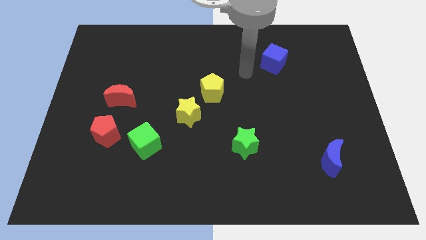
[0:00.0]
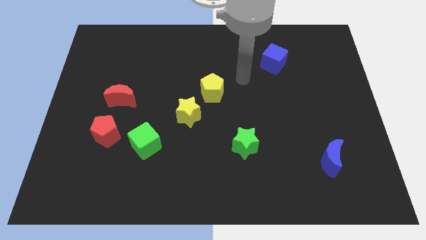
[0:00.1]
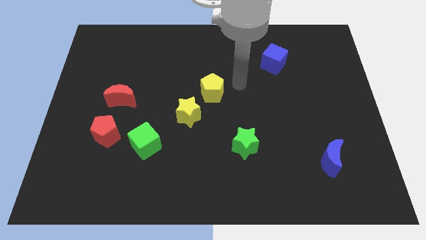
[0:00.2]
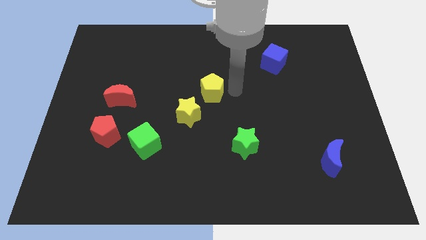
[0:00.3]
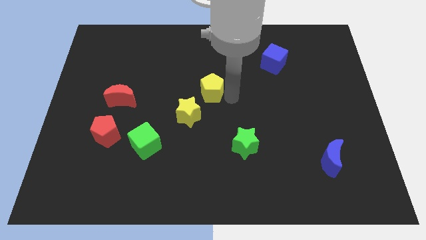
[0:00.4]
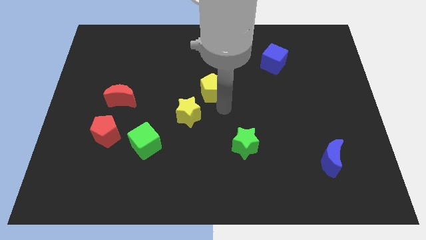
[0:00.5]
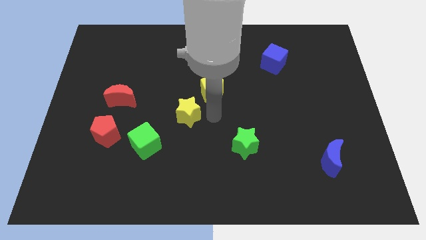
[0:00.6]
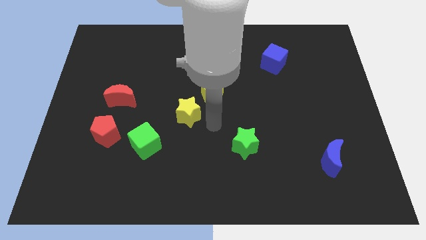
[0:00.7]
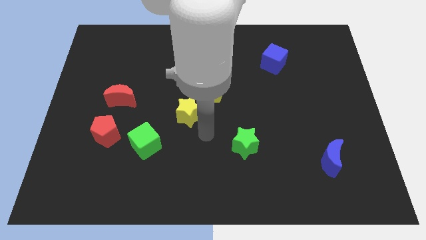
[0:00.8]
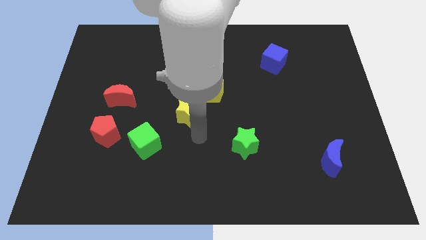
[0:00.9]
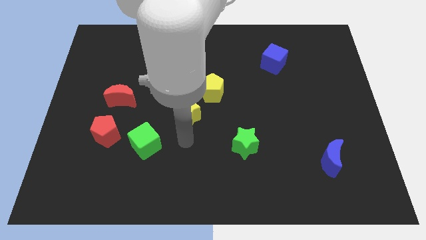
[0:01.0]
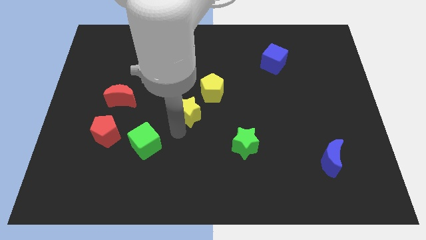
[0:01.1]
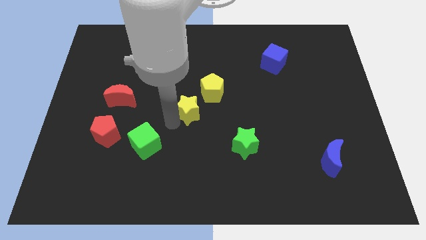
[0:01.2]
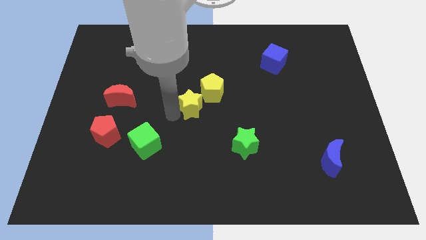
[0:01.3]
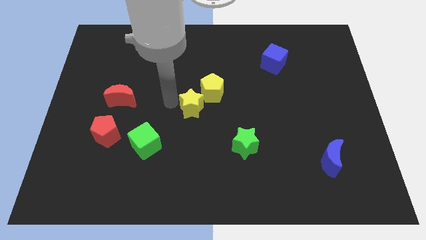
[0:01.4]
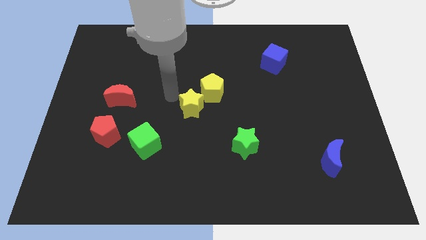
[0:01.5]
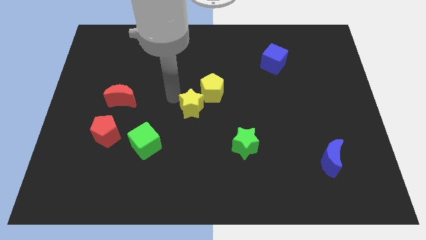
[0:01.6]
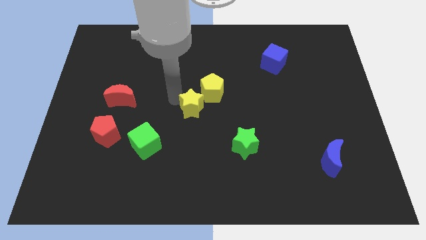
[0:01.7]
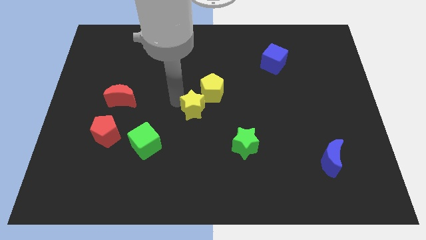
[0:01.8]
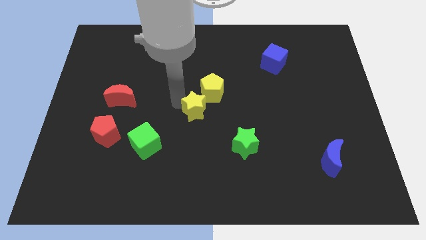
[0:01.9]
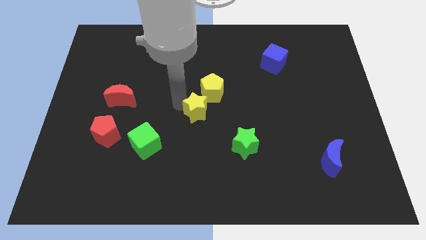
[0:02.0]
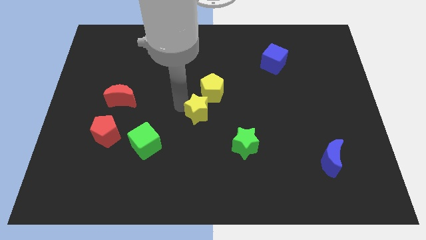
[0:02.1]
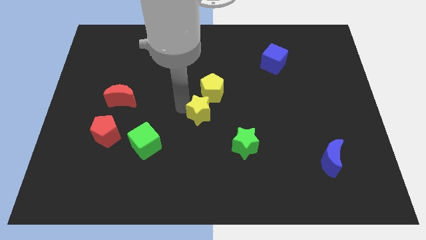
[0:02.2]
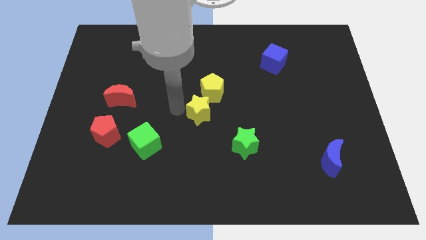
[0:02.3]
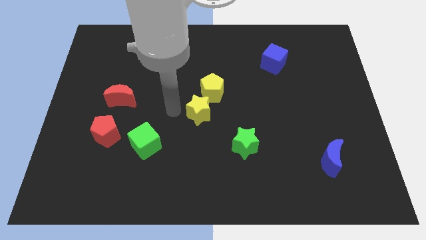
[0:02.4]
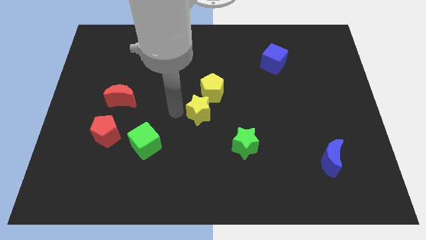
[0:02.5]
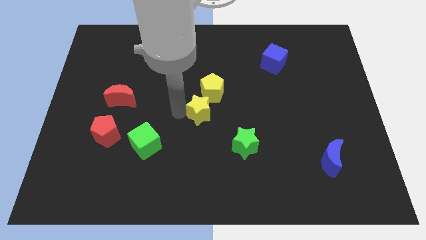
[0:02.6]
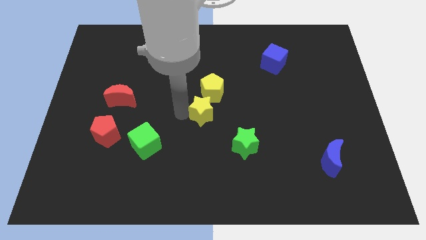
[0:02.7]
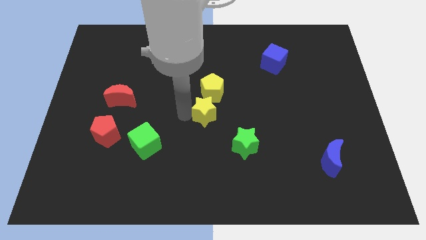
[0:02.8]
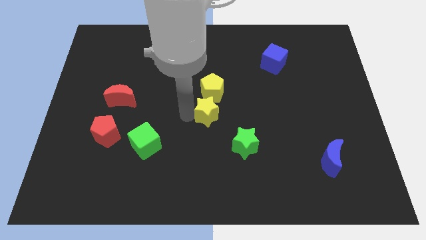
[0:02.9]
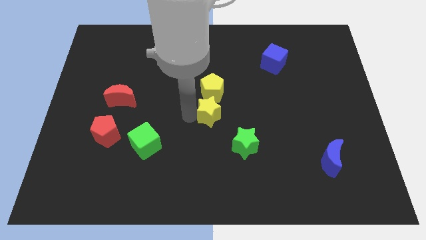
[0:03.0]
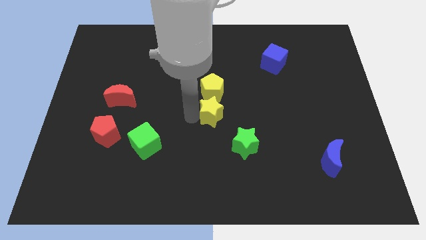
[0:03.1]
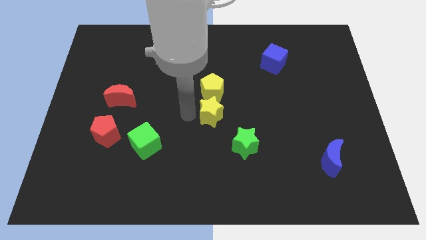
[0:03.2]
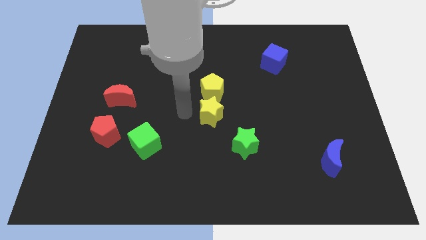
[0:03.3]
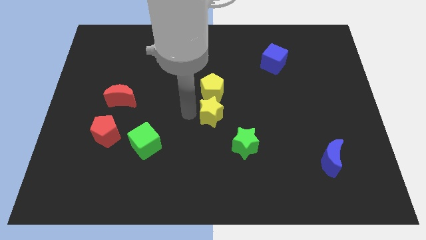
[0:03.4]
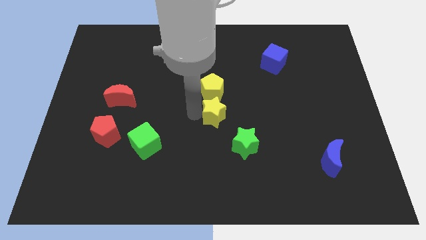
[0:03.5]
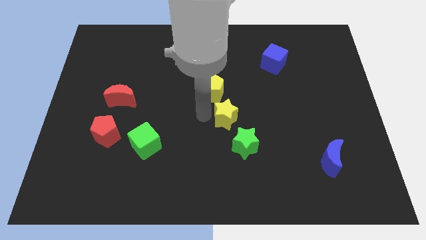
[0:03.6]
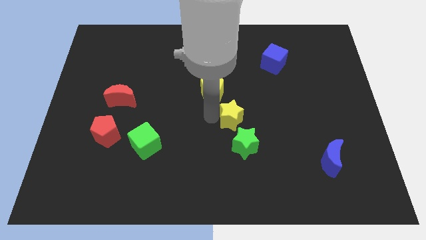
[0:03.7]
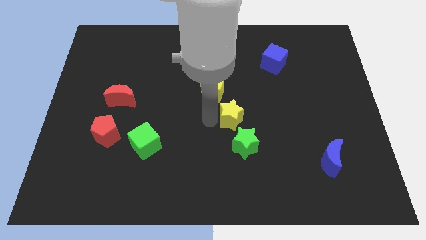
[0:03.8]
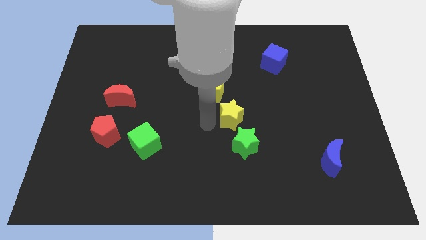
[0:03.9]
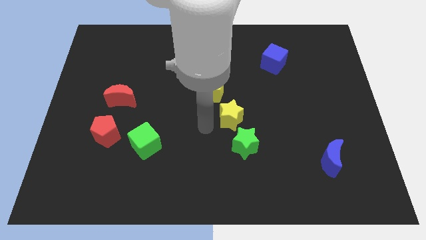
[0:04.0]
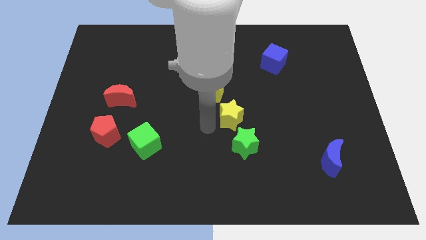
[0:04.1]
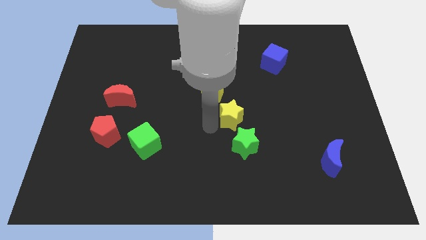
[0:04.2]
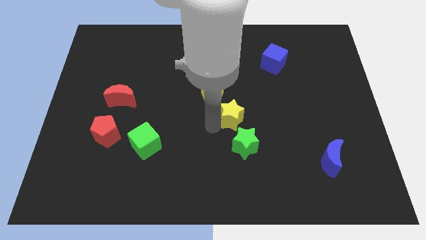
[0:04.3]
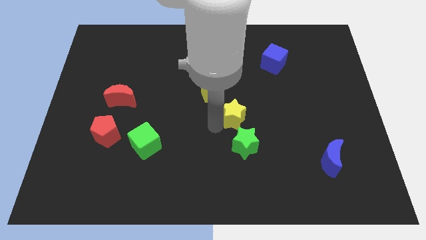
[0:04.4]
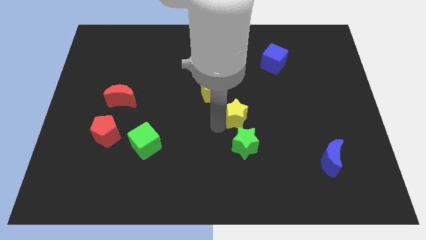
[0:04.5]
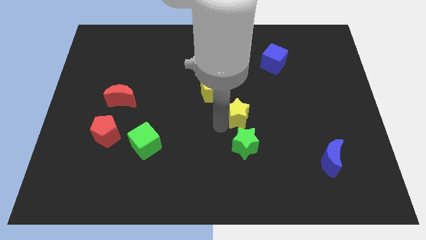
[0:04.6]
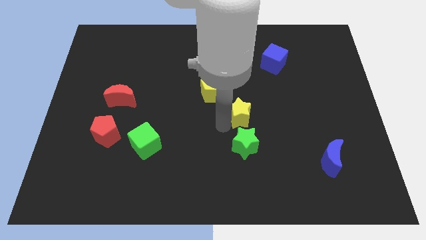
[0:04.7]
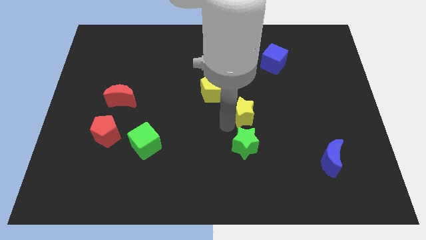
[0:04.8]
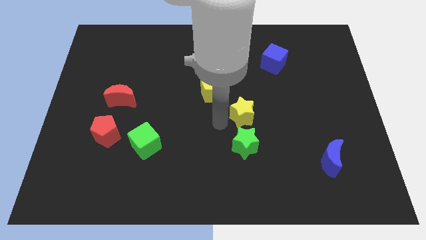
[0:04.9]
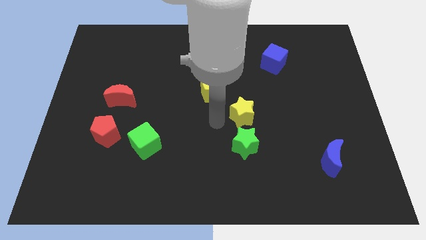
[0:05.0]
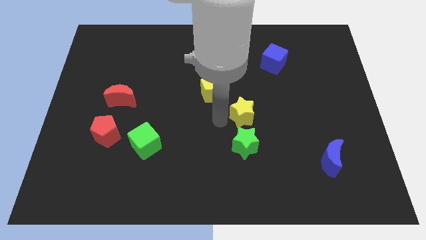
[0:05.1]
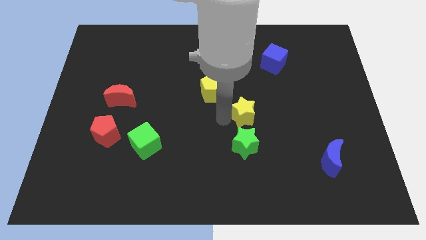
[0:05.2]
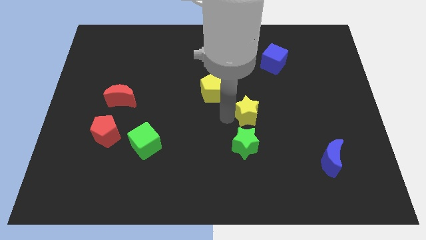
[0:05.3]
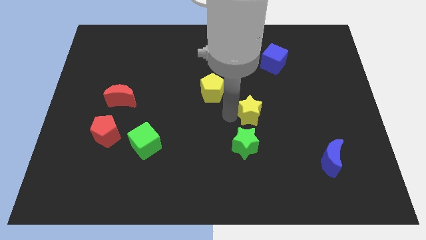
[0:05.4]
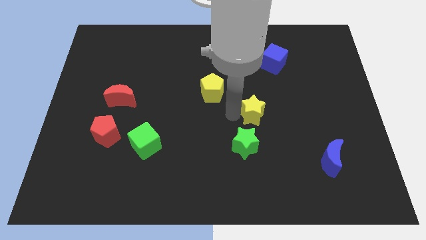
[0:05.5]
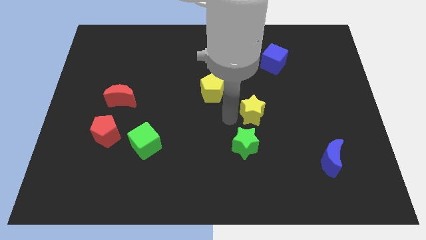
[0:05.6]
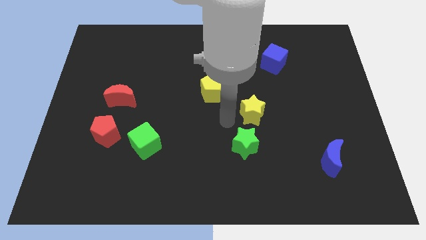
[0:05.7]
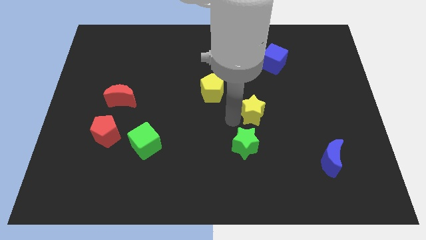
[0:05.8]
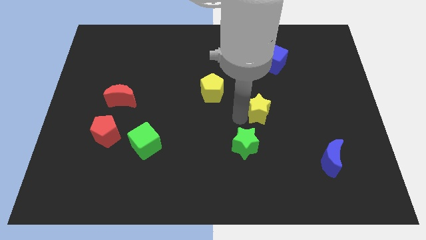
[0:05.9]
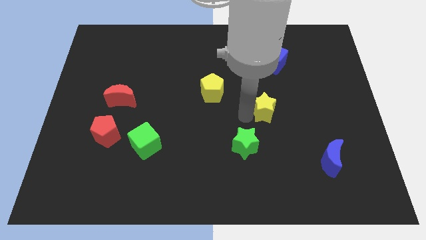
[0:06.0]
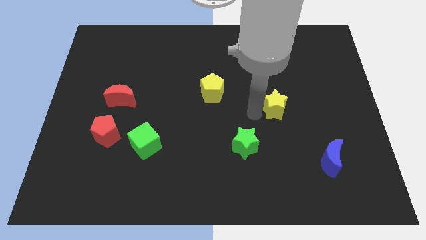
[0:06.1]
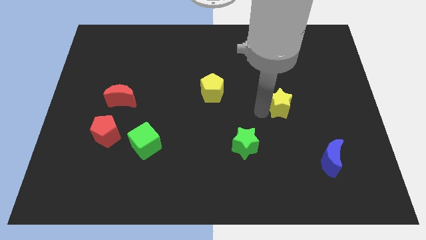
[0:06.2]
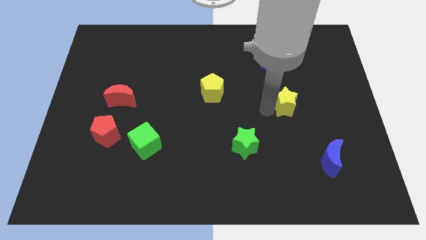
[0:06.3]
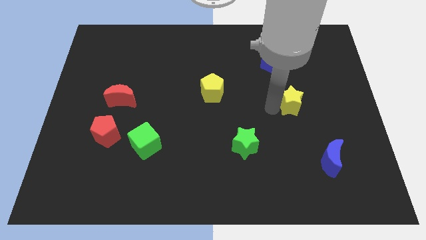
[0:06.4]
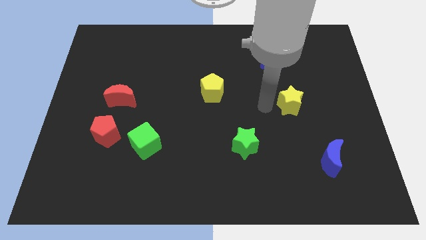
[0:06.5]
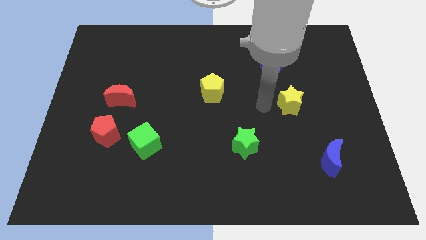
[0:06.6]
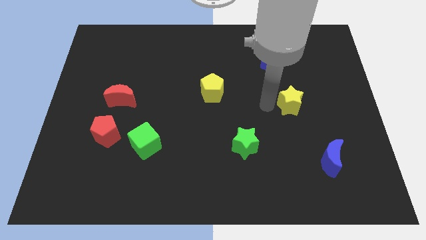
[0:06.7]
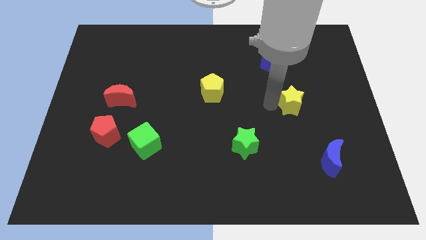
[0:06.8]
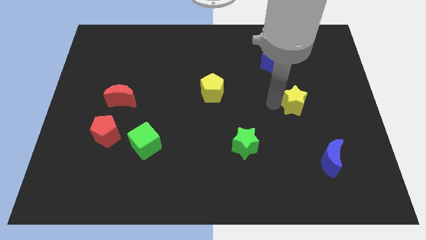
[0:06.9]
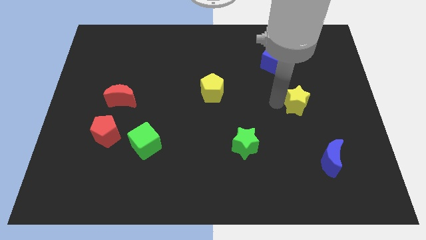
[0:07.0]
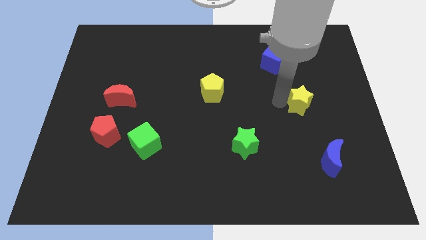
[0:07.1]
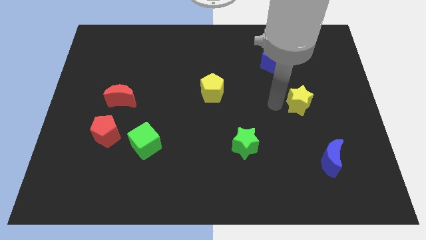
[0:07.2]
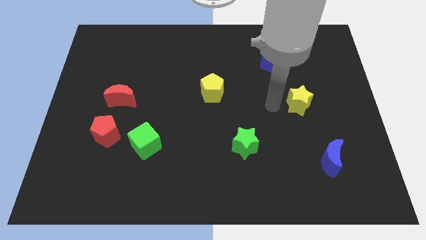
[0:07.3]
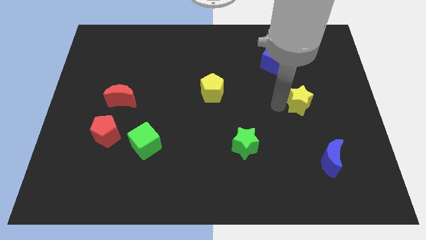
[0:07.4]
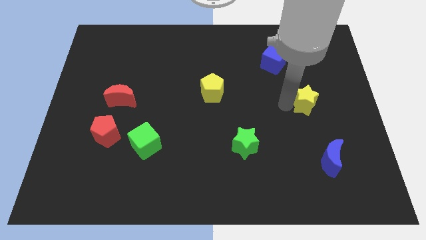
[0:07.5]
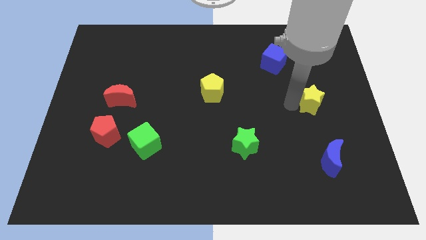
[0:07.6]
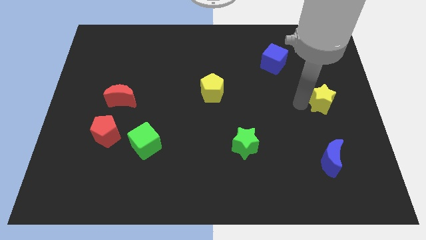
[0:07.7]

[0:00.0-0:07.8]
put the yellow star to the right side of the board
